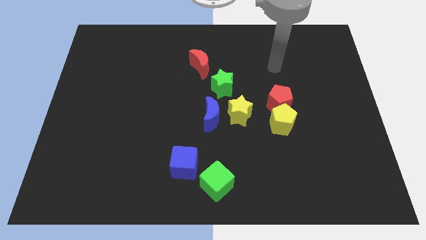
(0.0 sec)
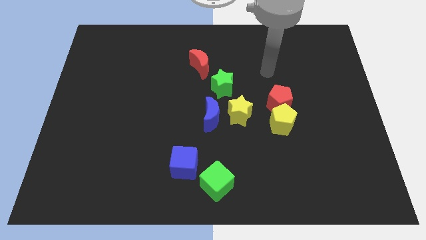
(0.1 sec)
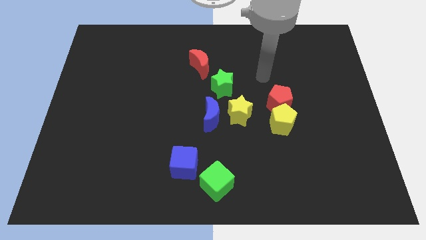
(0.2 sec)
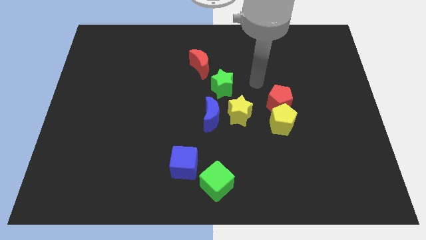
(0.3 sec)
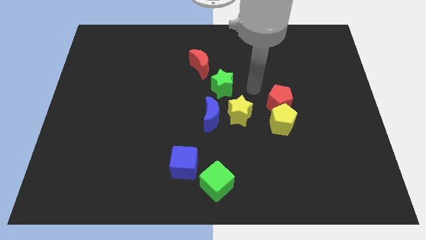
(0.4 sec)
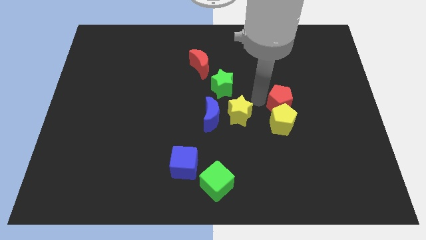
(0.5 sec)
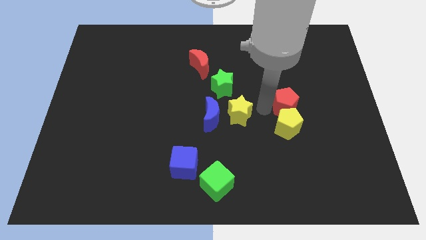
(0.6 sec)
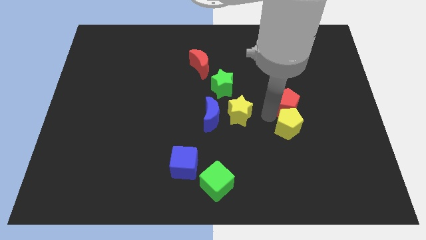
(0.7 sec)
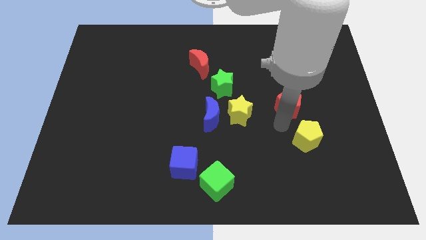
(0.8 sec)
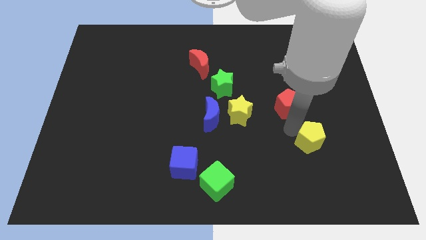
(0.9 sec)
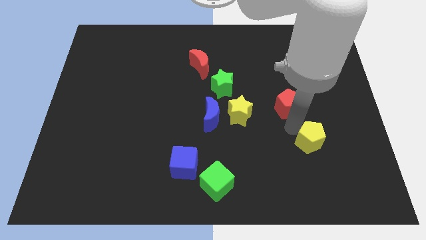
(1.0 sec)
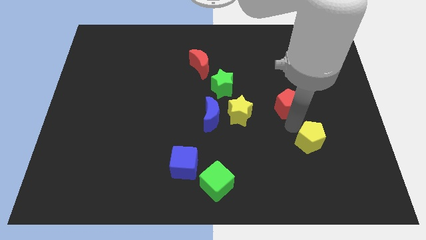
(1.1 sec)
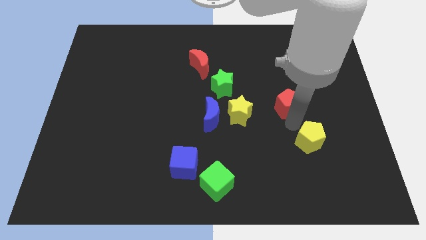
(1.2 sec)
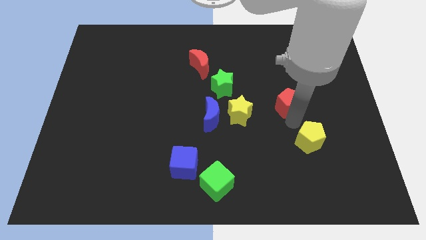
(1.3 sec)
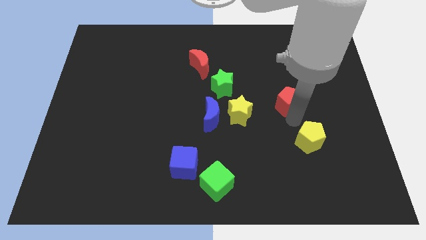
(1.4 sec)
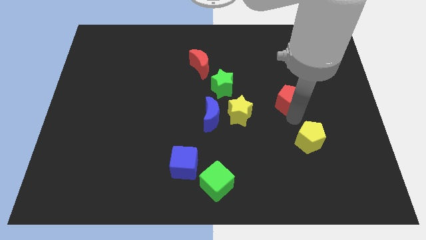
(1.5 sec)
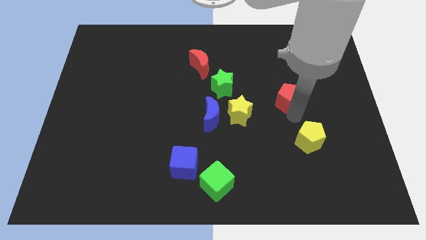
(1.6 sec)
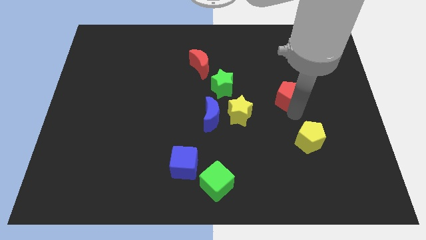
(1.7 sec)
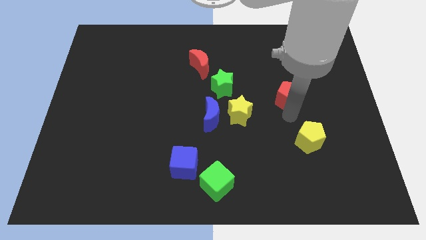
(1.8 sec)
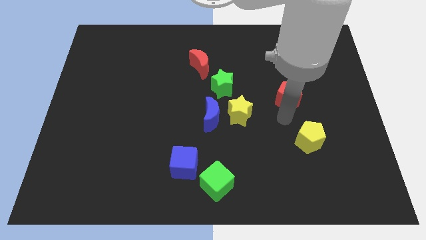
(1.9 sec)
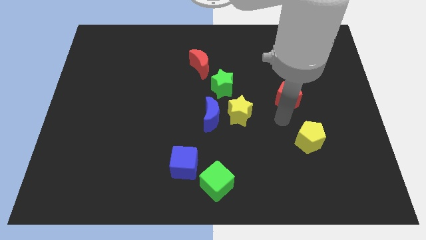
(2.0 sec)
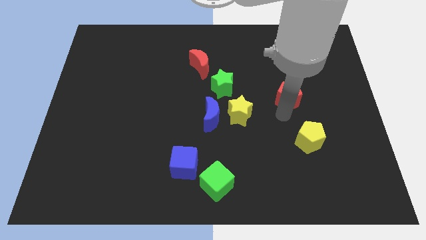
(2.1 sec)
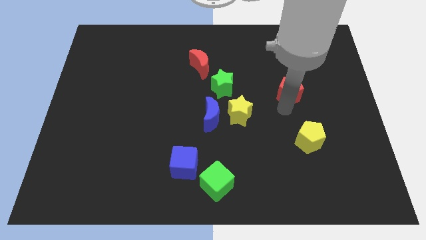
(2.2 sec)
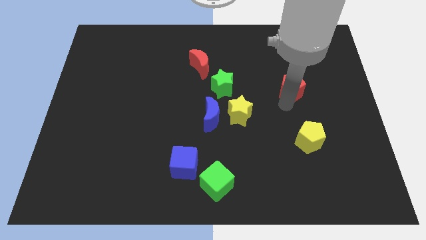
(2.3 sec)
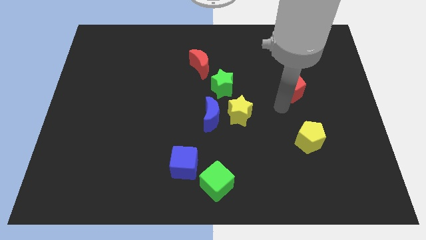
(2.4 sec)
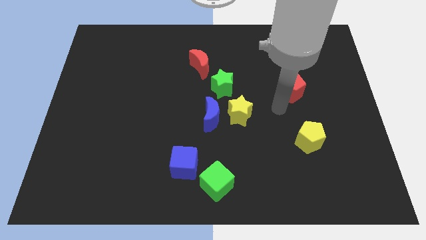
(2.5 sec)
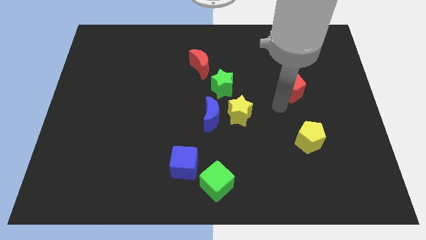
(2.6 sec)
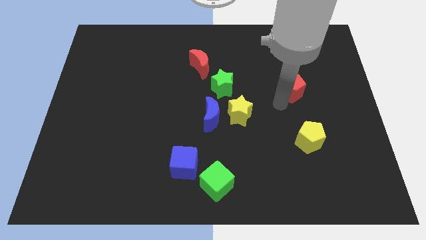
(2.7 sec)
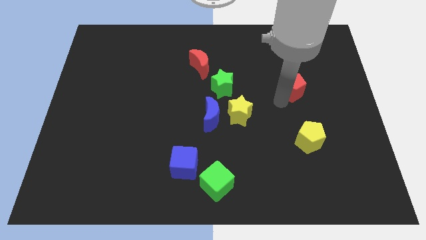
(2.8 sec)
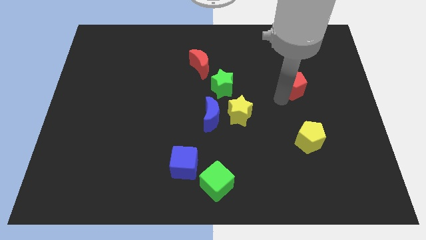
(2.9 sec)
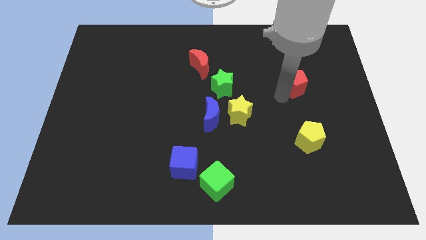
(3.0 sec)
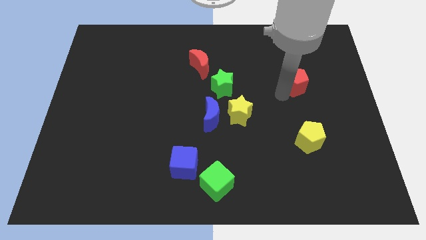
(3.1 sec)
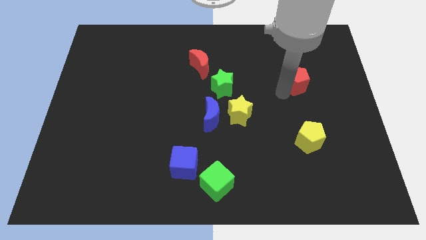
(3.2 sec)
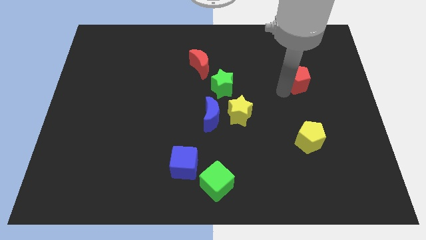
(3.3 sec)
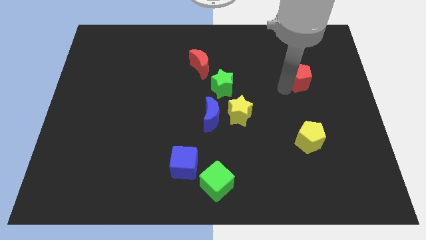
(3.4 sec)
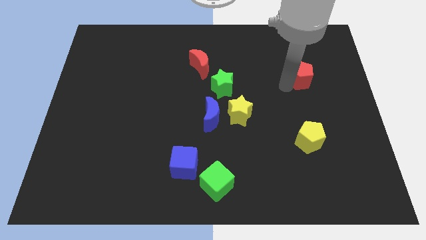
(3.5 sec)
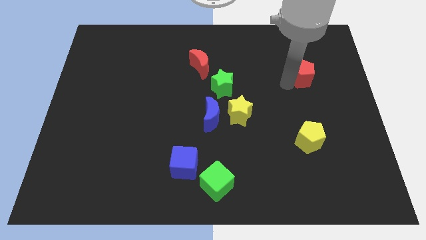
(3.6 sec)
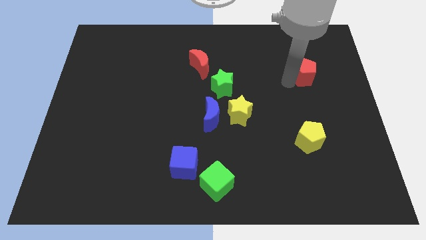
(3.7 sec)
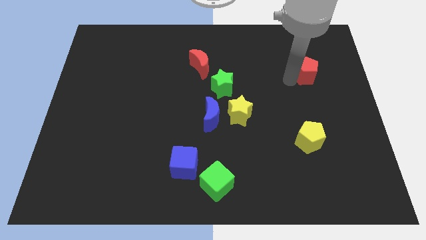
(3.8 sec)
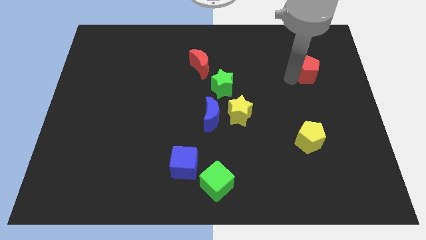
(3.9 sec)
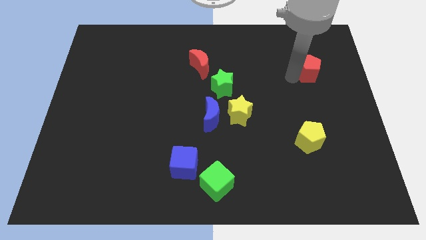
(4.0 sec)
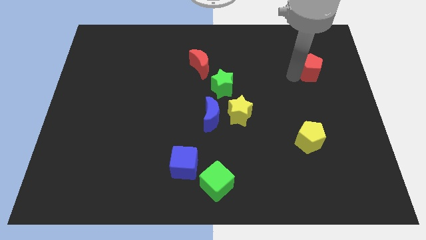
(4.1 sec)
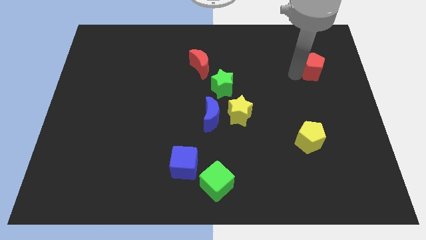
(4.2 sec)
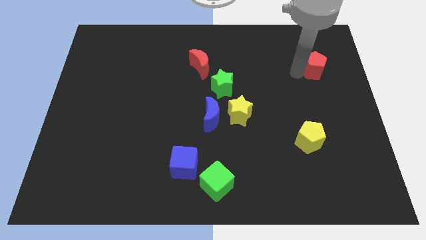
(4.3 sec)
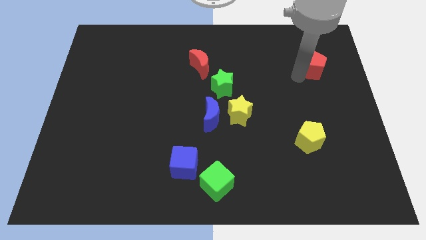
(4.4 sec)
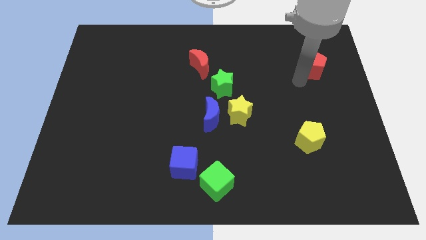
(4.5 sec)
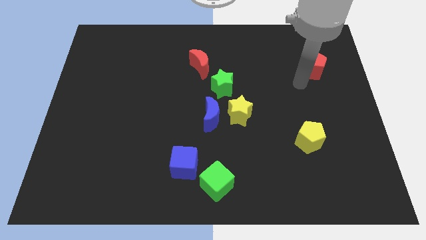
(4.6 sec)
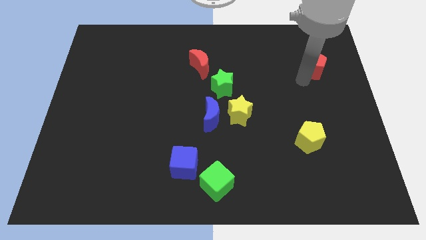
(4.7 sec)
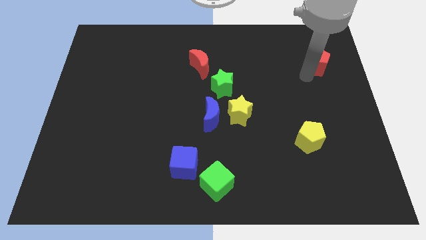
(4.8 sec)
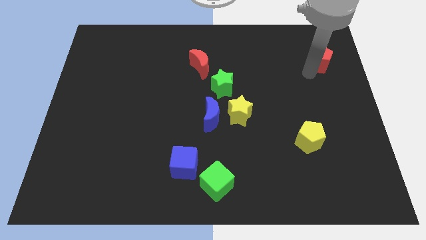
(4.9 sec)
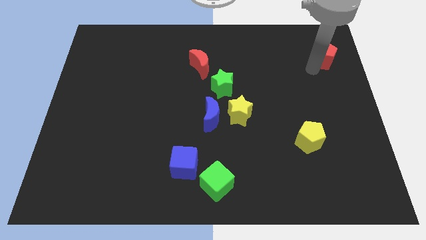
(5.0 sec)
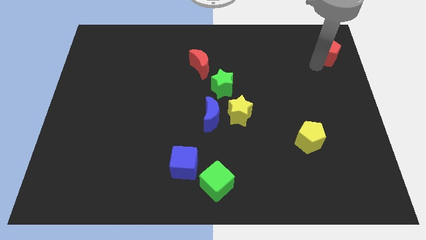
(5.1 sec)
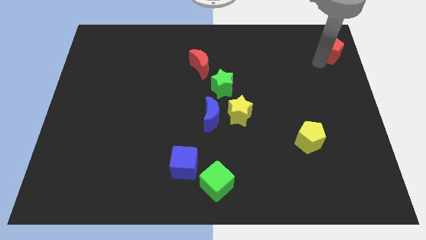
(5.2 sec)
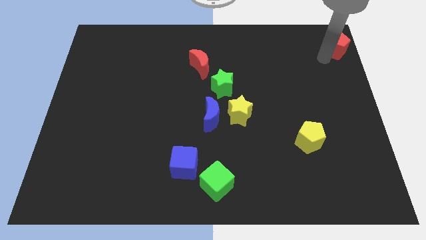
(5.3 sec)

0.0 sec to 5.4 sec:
move the red pentagon to the top right corner
